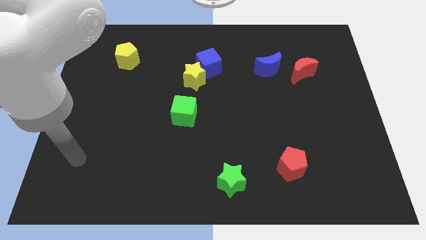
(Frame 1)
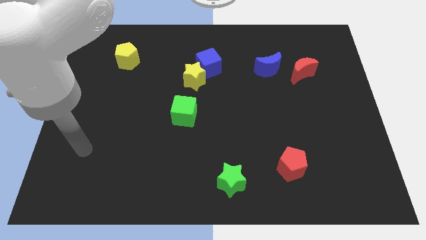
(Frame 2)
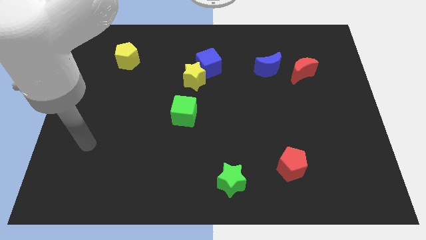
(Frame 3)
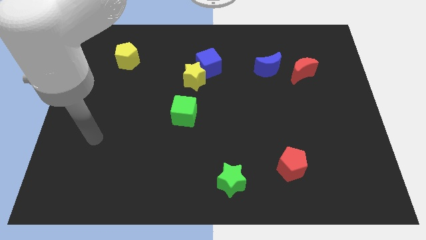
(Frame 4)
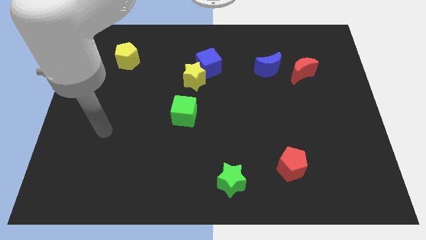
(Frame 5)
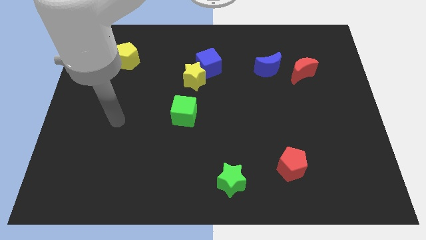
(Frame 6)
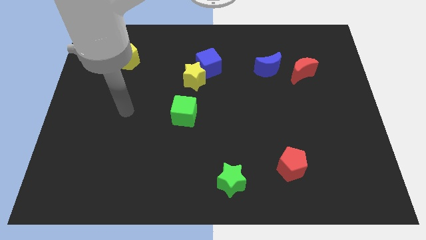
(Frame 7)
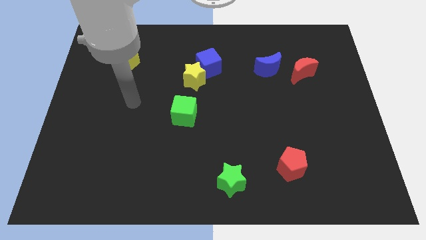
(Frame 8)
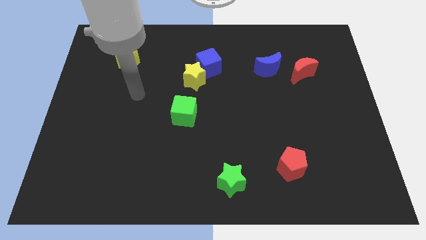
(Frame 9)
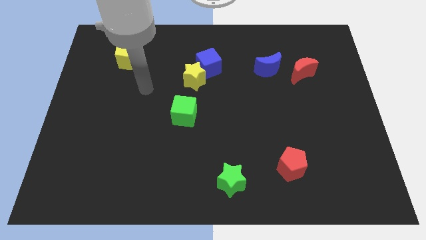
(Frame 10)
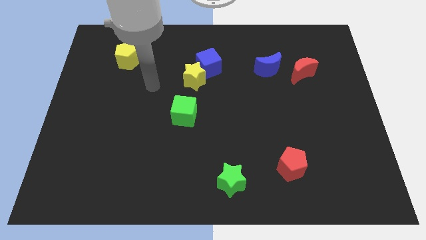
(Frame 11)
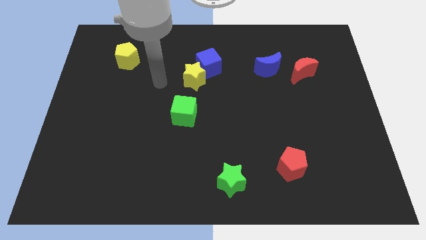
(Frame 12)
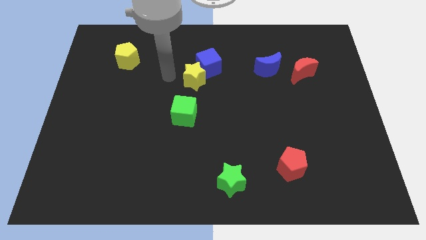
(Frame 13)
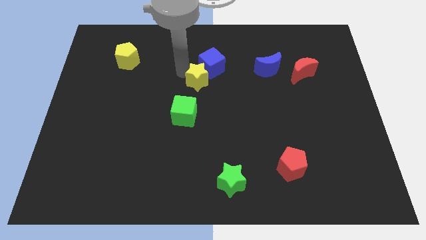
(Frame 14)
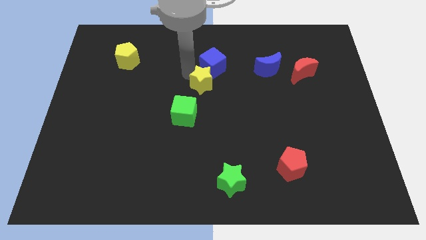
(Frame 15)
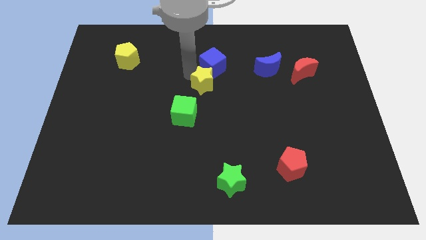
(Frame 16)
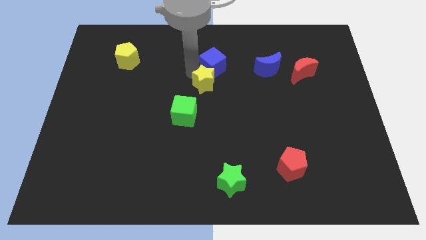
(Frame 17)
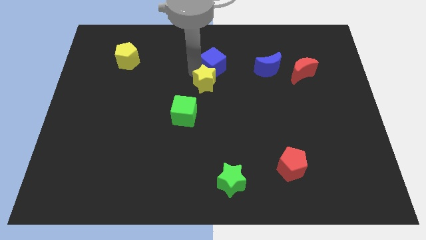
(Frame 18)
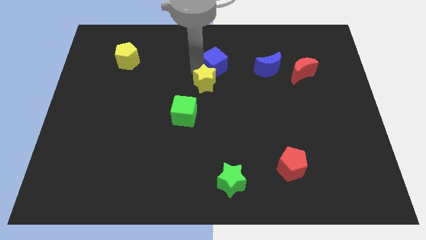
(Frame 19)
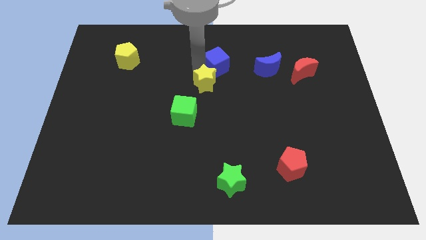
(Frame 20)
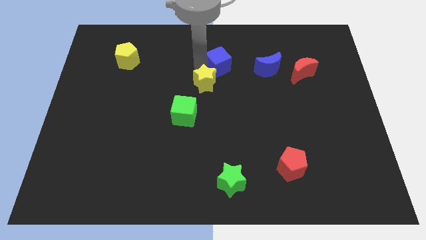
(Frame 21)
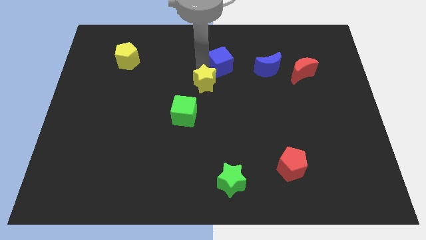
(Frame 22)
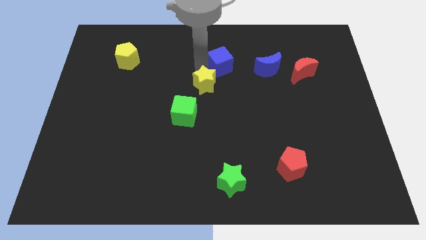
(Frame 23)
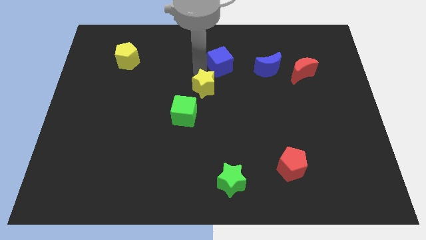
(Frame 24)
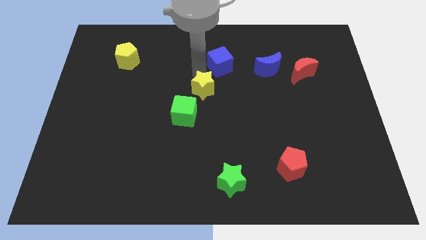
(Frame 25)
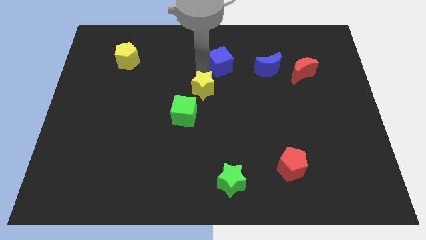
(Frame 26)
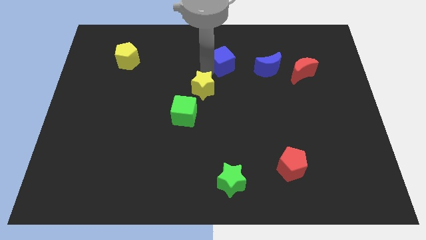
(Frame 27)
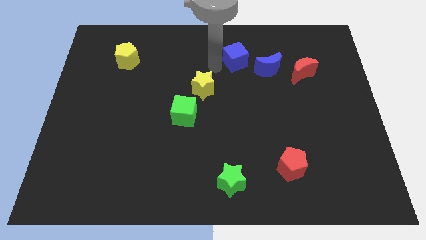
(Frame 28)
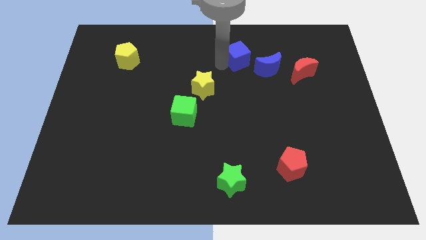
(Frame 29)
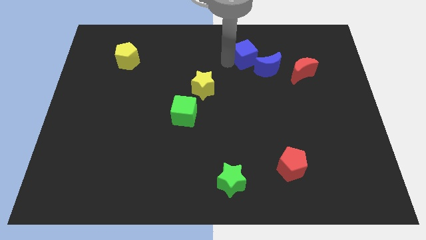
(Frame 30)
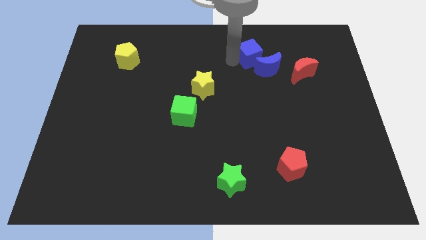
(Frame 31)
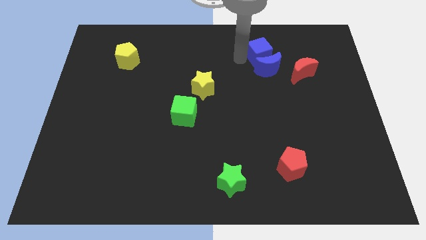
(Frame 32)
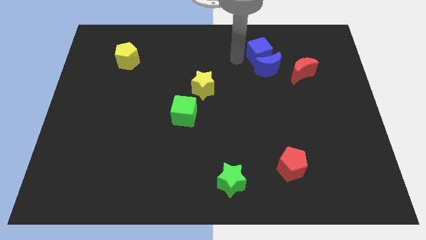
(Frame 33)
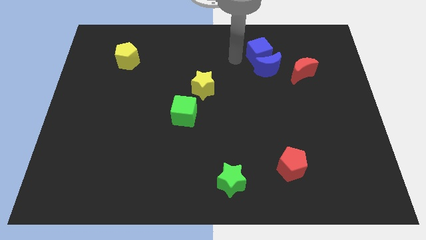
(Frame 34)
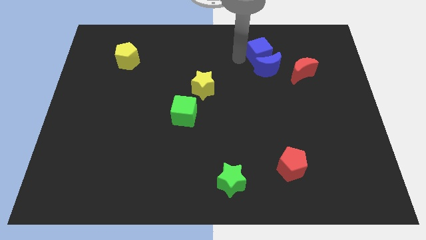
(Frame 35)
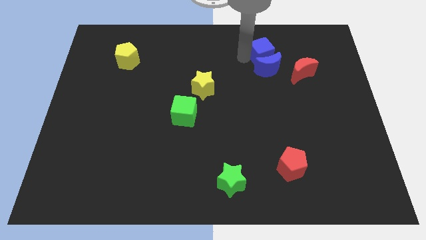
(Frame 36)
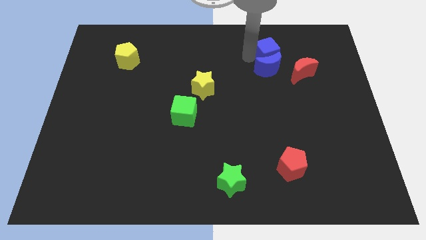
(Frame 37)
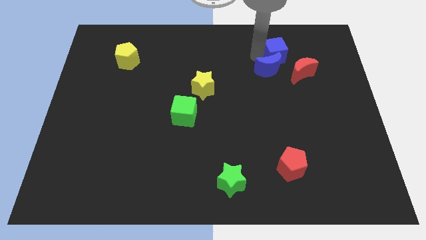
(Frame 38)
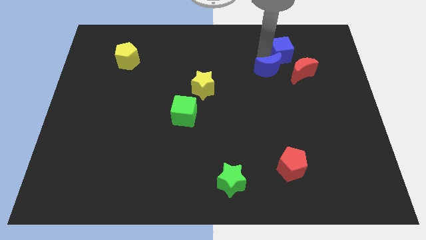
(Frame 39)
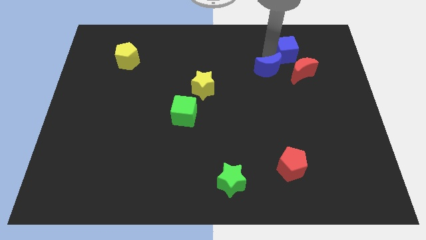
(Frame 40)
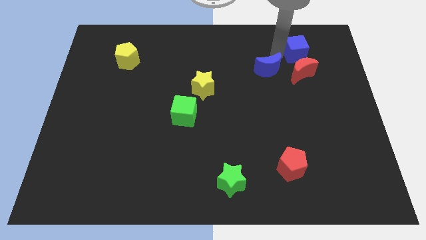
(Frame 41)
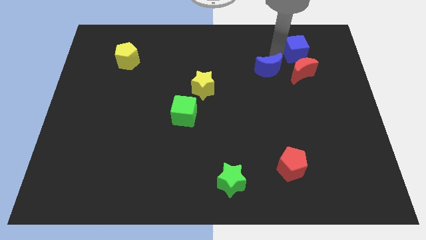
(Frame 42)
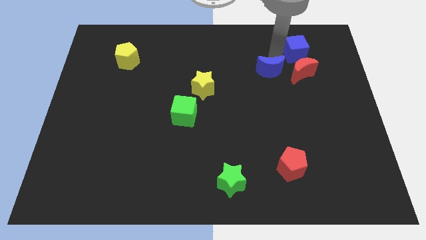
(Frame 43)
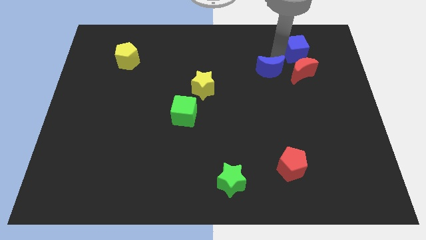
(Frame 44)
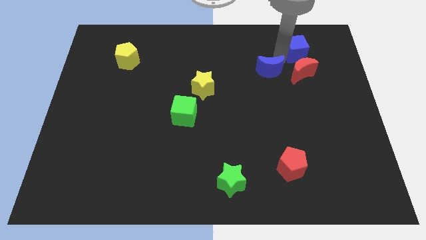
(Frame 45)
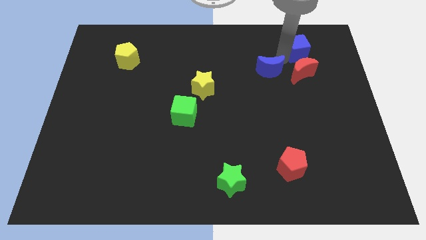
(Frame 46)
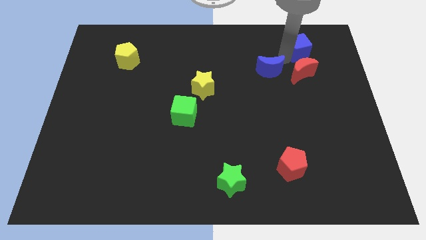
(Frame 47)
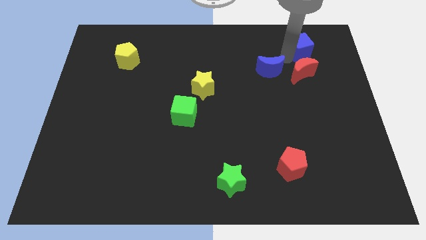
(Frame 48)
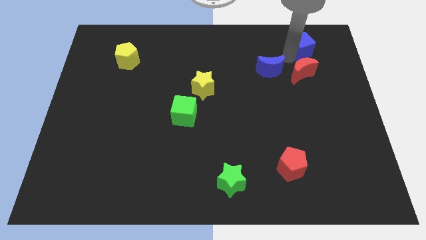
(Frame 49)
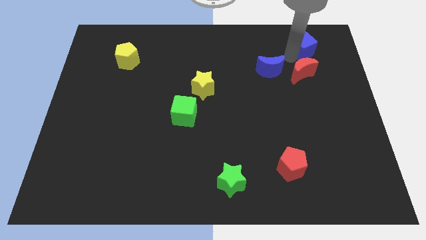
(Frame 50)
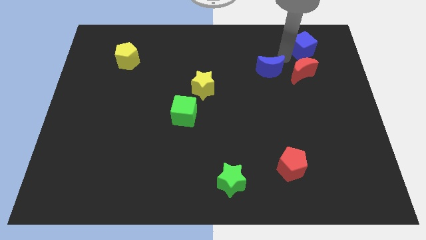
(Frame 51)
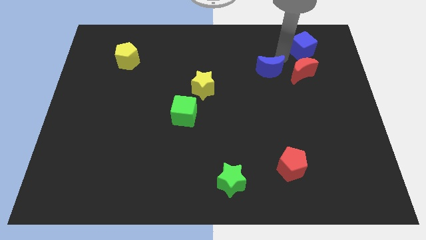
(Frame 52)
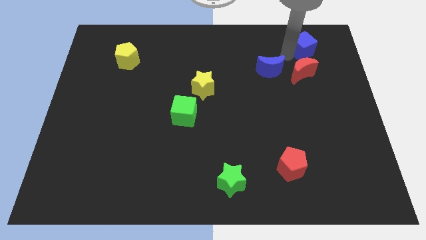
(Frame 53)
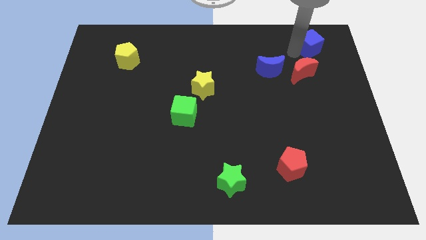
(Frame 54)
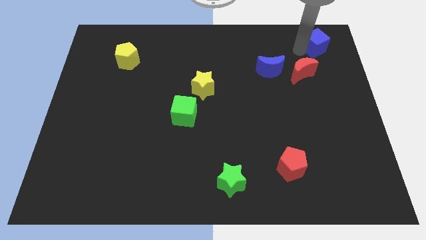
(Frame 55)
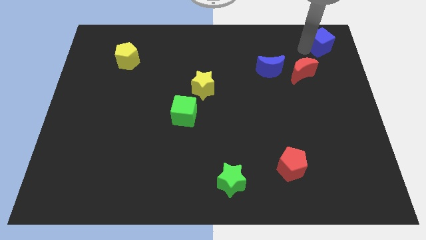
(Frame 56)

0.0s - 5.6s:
slide the blue cube to the top right

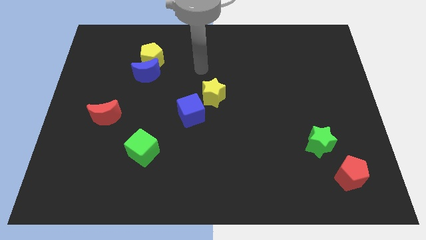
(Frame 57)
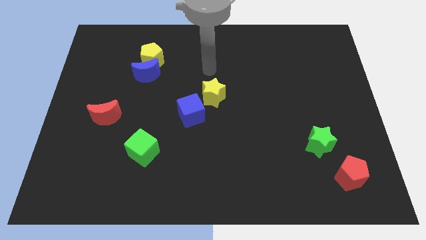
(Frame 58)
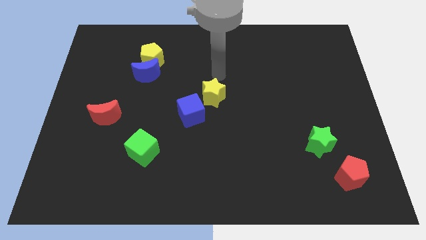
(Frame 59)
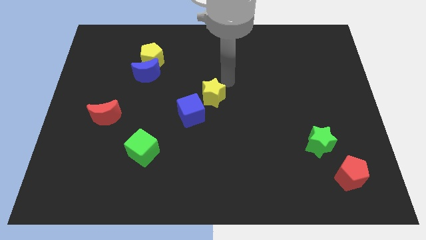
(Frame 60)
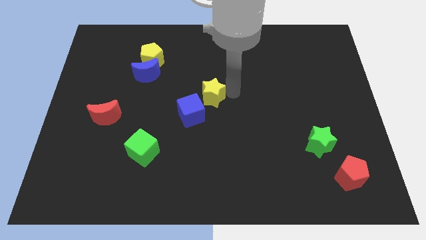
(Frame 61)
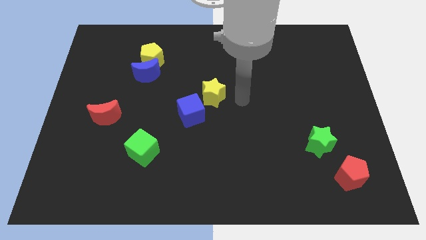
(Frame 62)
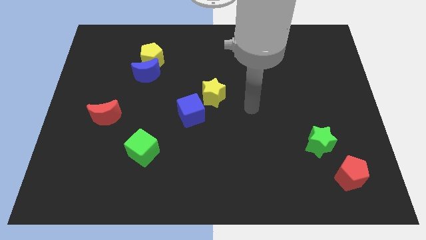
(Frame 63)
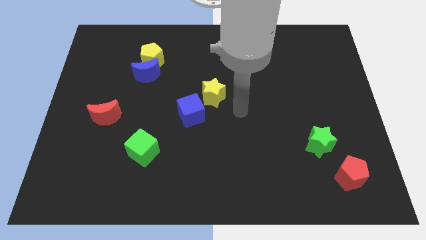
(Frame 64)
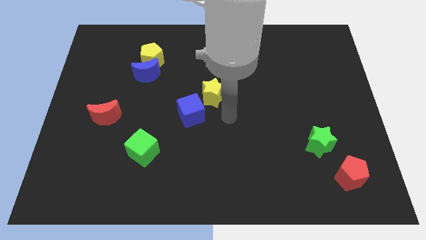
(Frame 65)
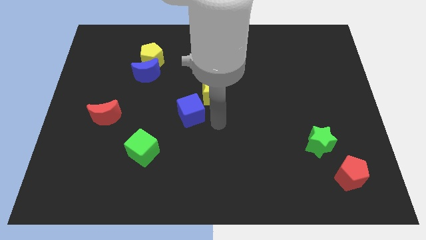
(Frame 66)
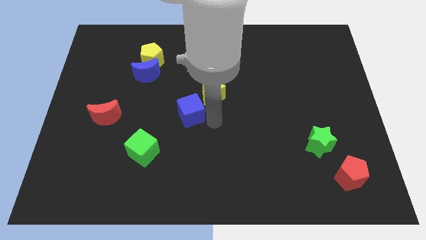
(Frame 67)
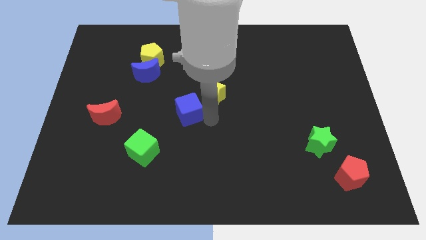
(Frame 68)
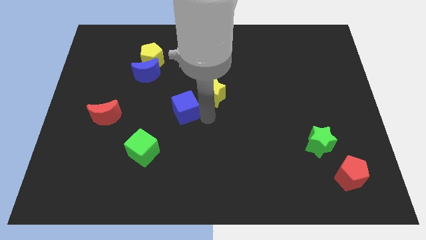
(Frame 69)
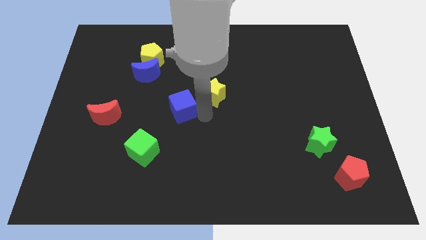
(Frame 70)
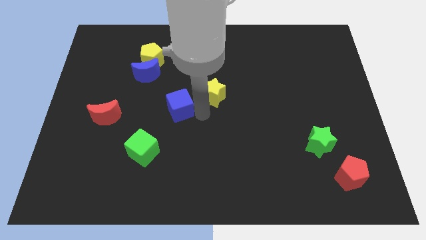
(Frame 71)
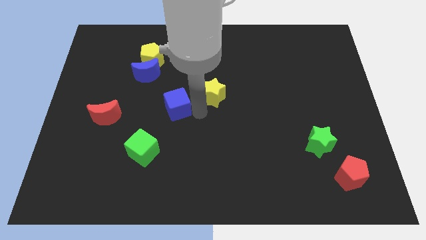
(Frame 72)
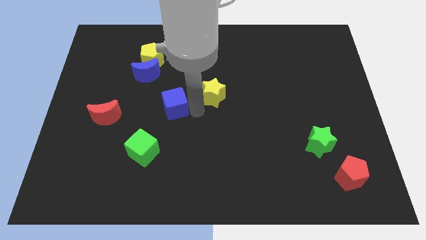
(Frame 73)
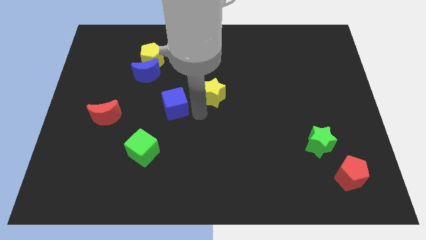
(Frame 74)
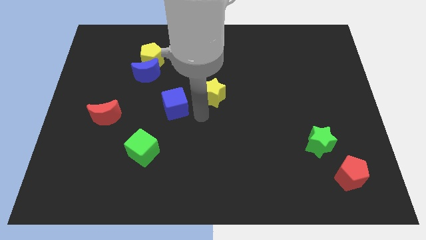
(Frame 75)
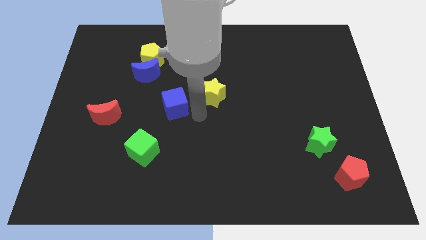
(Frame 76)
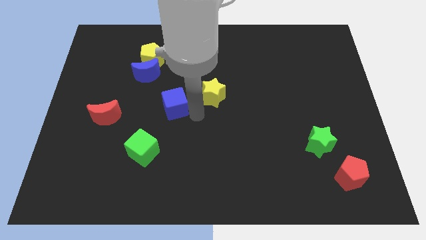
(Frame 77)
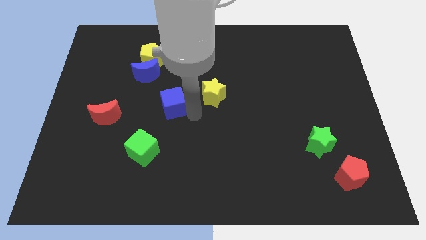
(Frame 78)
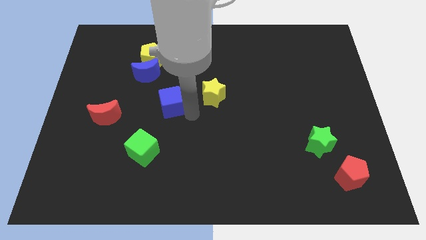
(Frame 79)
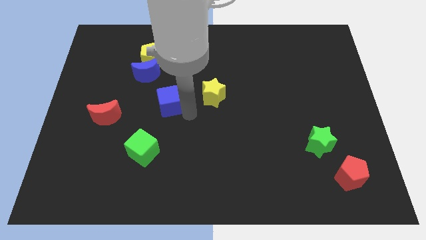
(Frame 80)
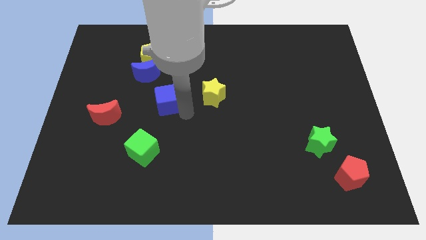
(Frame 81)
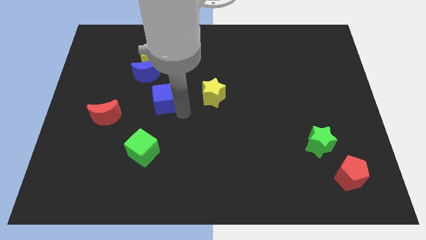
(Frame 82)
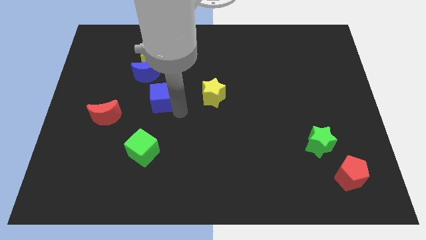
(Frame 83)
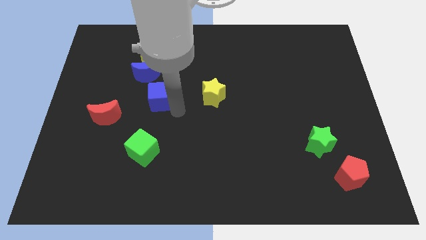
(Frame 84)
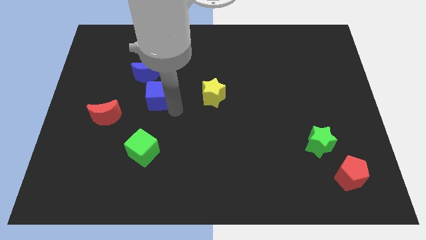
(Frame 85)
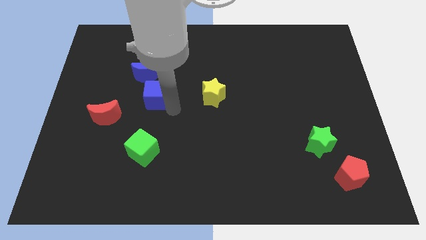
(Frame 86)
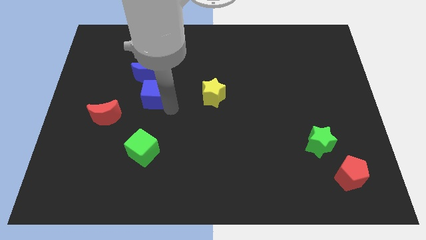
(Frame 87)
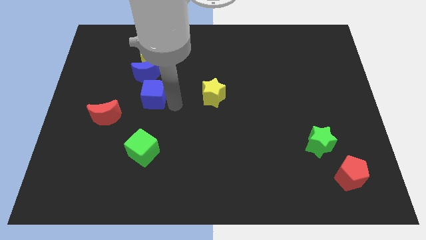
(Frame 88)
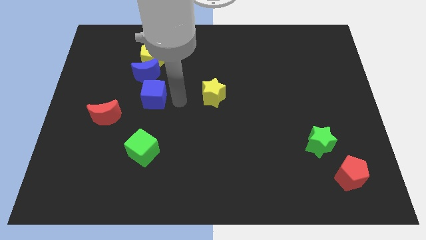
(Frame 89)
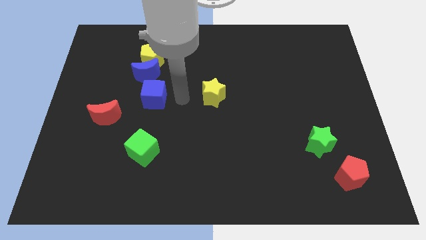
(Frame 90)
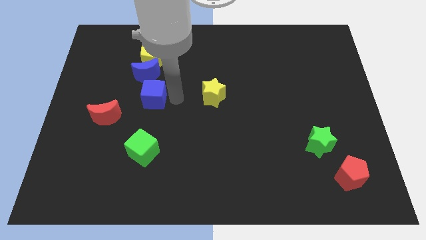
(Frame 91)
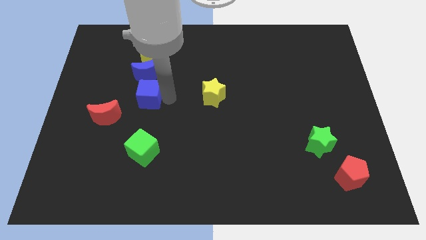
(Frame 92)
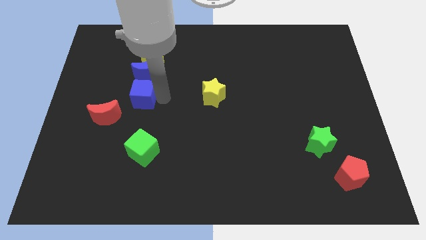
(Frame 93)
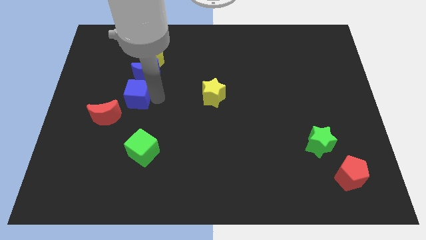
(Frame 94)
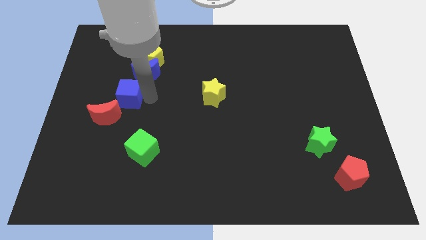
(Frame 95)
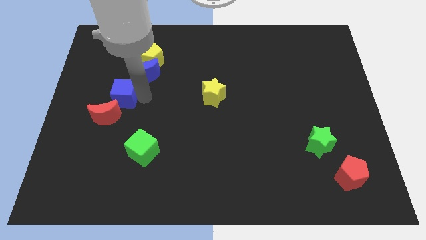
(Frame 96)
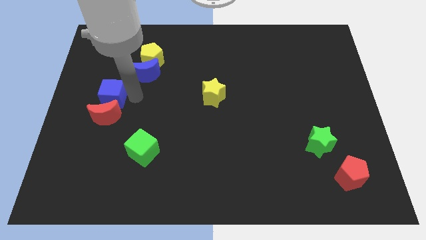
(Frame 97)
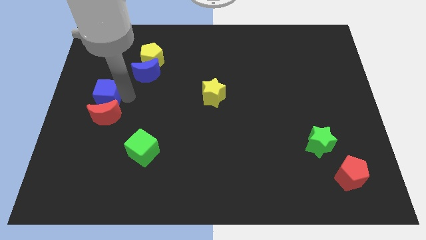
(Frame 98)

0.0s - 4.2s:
put the blue cube to the left side
